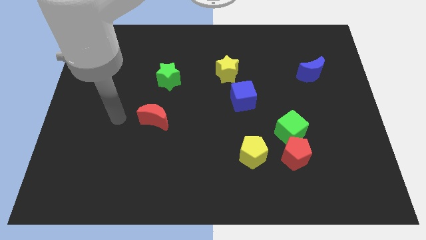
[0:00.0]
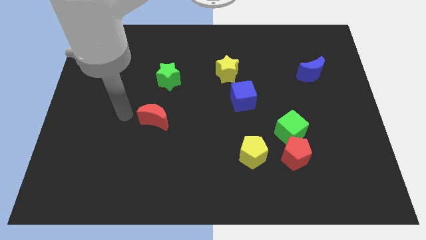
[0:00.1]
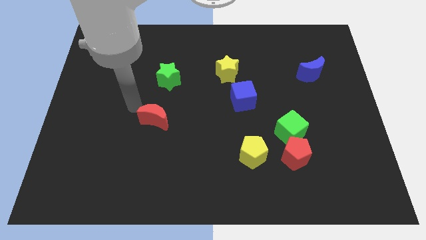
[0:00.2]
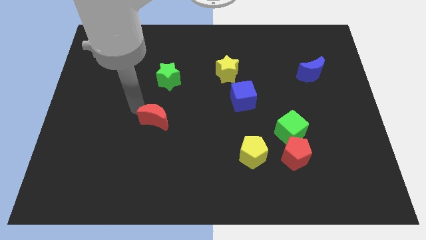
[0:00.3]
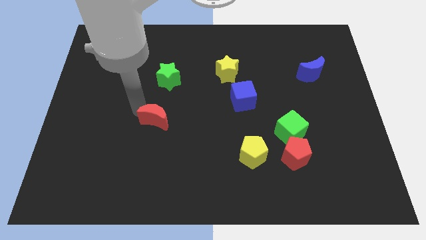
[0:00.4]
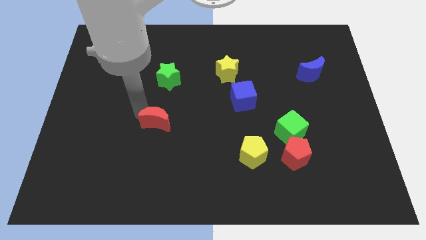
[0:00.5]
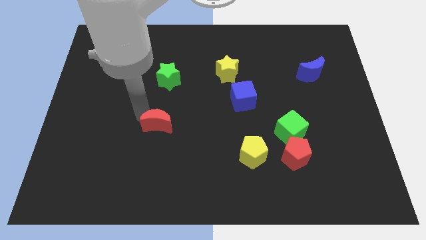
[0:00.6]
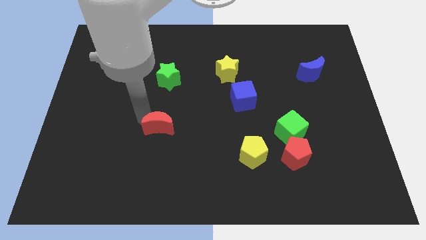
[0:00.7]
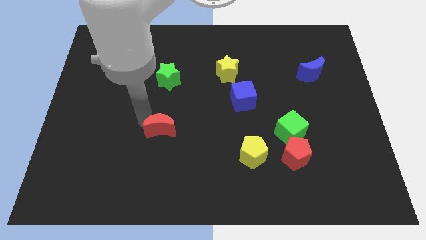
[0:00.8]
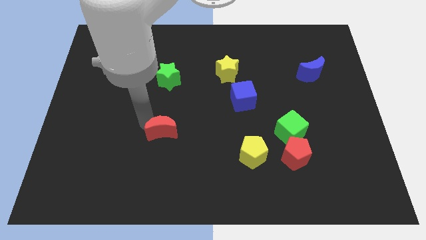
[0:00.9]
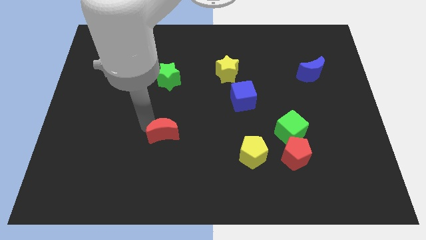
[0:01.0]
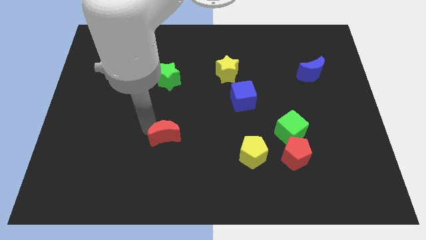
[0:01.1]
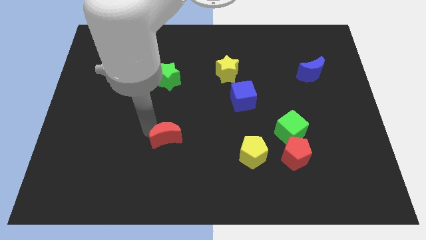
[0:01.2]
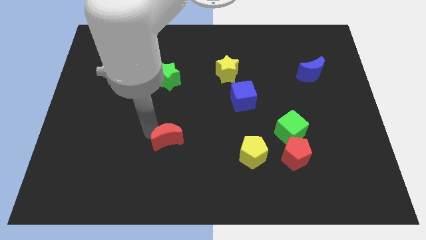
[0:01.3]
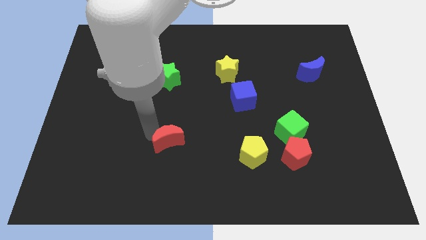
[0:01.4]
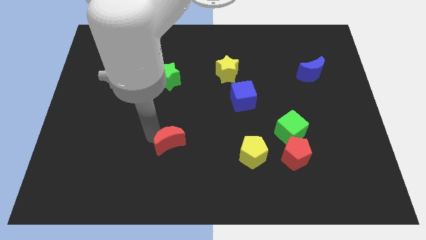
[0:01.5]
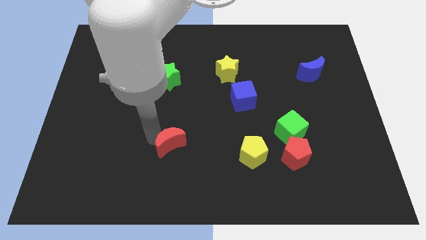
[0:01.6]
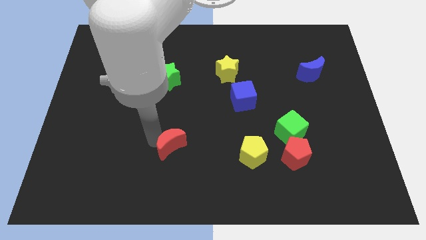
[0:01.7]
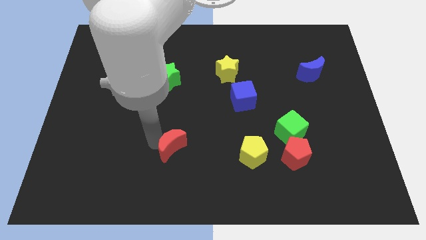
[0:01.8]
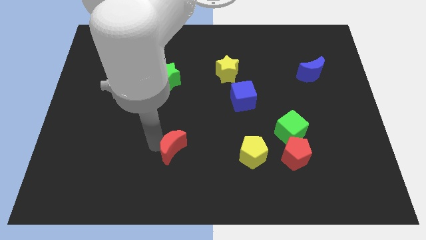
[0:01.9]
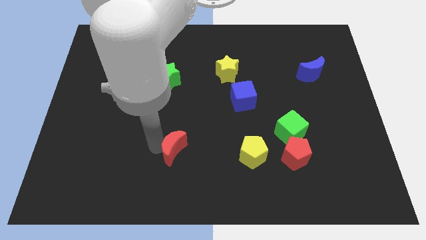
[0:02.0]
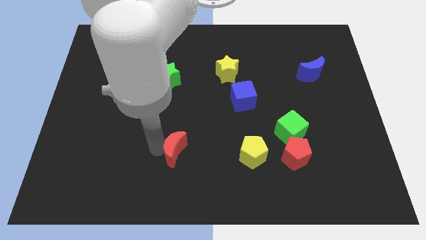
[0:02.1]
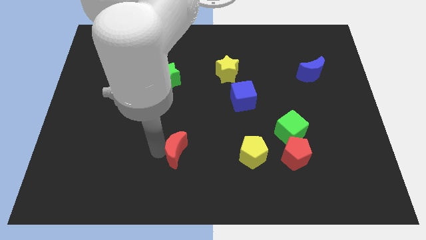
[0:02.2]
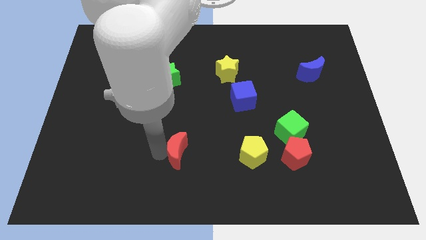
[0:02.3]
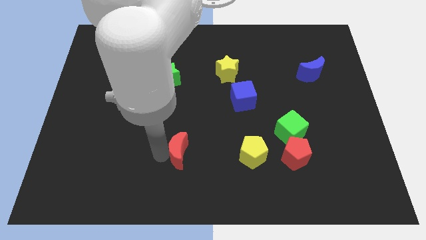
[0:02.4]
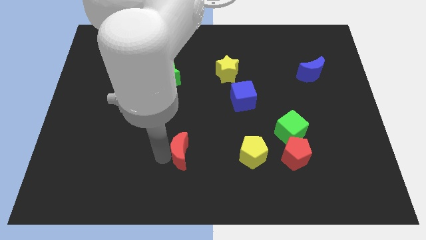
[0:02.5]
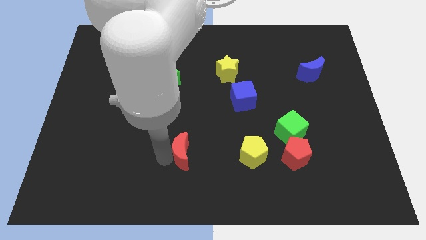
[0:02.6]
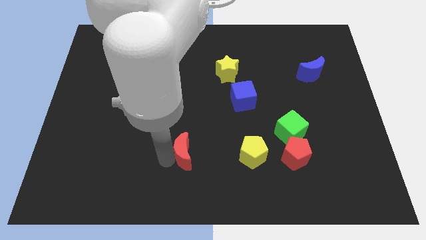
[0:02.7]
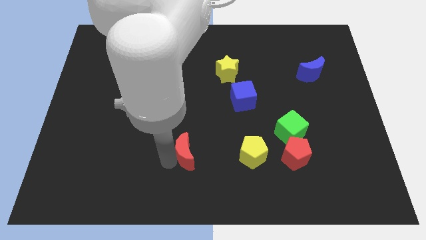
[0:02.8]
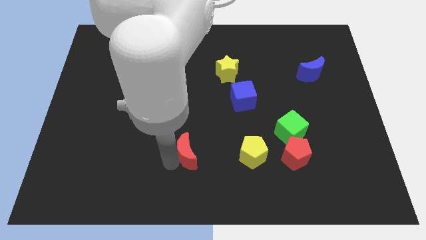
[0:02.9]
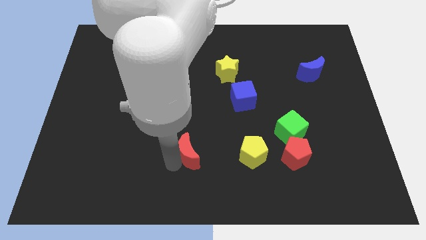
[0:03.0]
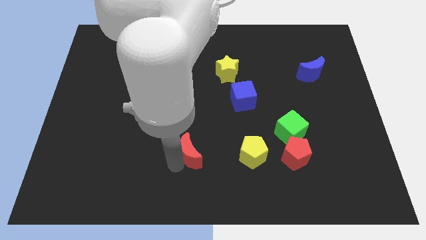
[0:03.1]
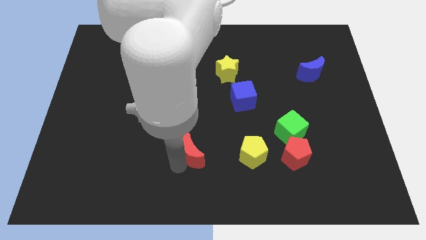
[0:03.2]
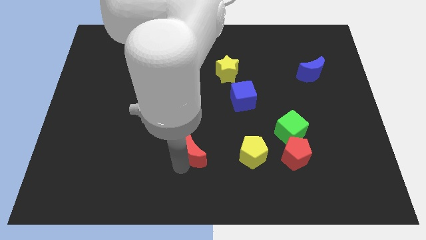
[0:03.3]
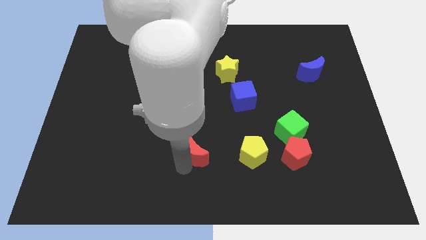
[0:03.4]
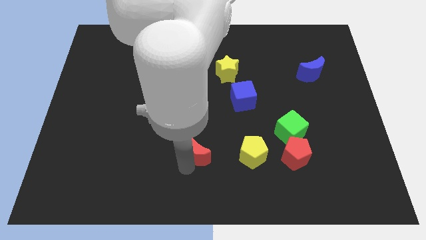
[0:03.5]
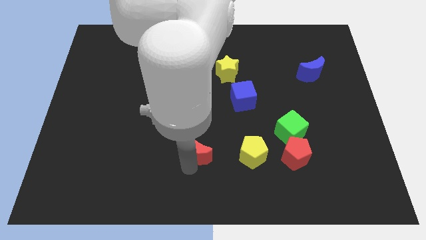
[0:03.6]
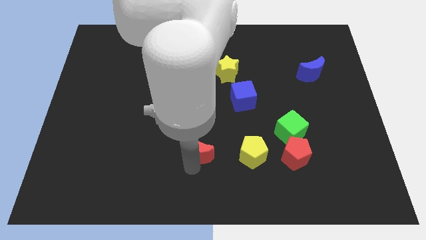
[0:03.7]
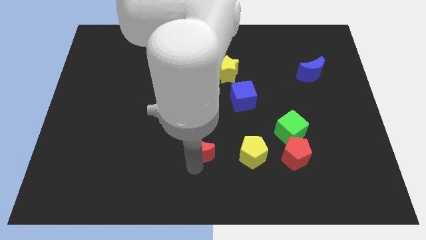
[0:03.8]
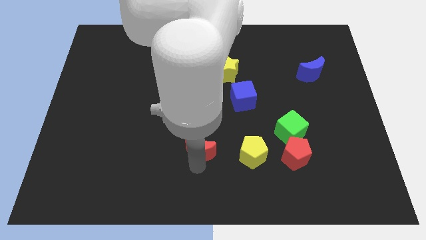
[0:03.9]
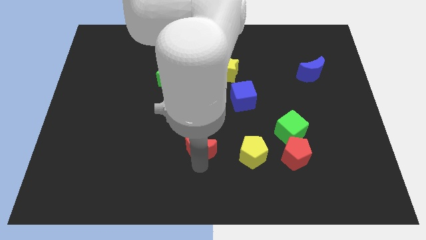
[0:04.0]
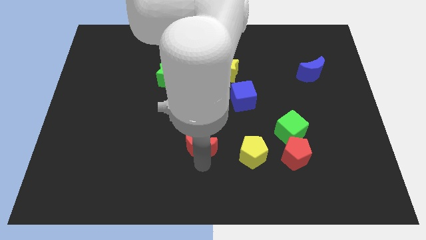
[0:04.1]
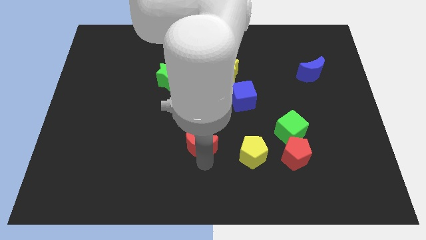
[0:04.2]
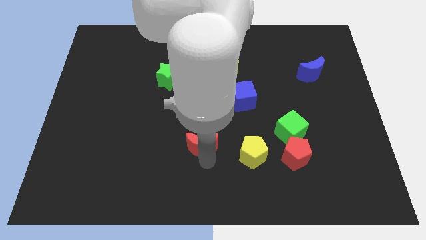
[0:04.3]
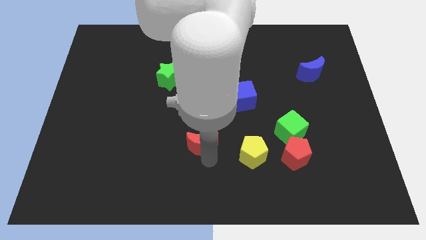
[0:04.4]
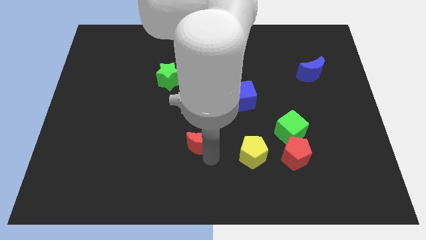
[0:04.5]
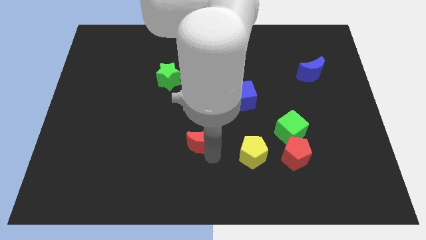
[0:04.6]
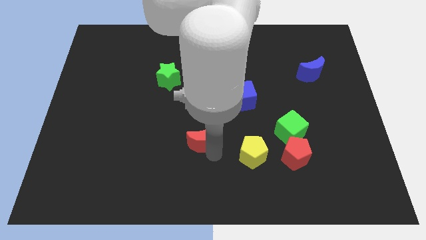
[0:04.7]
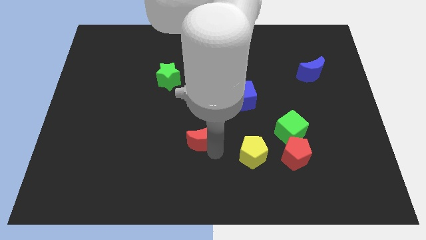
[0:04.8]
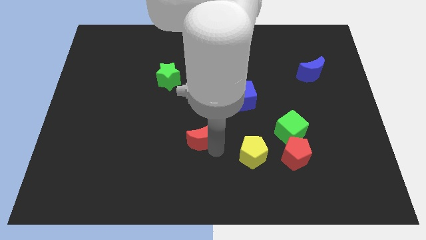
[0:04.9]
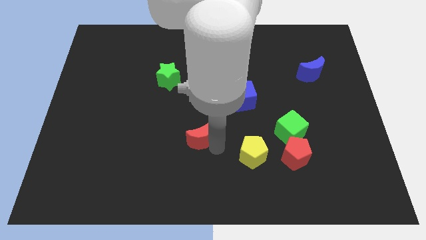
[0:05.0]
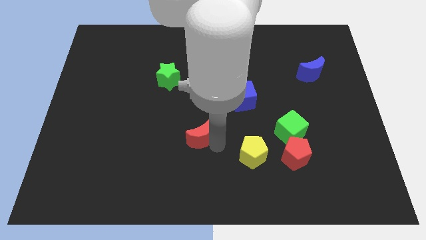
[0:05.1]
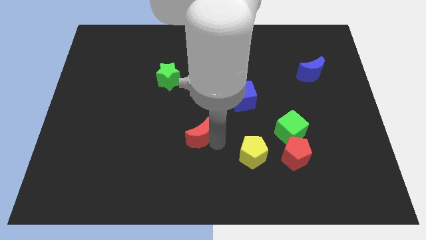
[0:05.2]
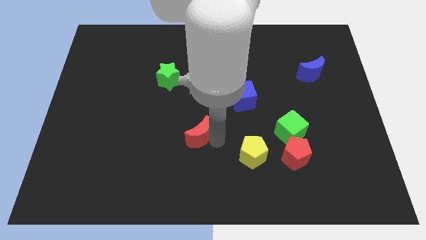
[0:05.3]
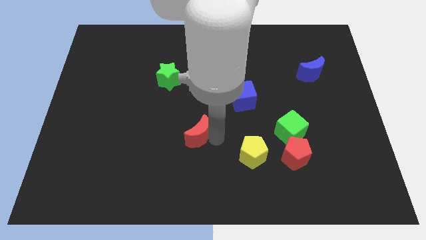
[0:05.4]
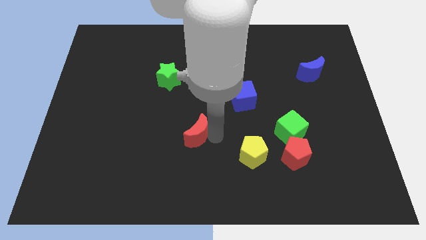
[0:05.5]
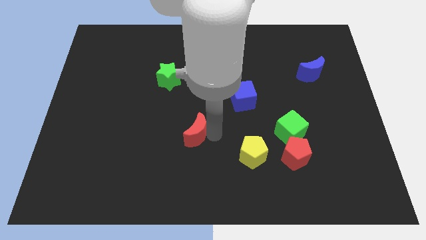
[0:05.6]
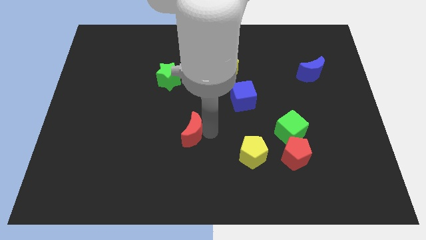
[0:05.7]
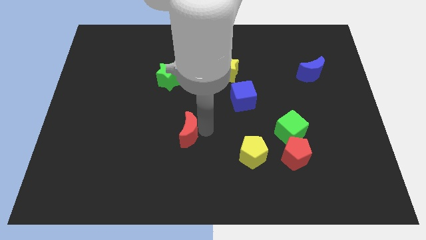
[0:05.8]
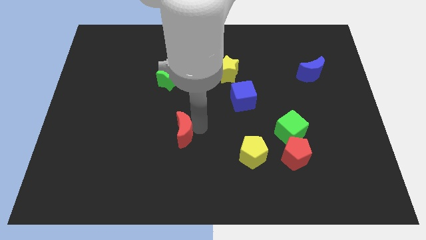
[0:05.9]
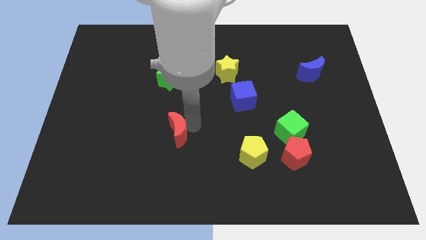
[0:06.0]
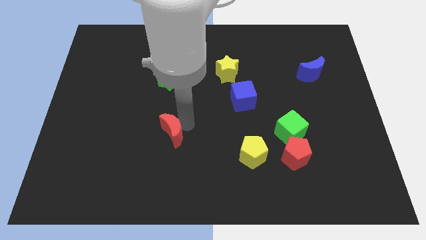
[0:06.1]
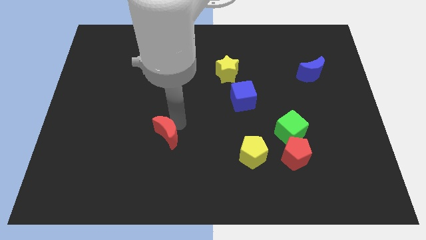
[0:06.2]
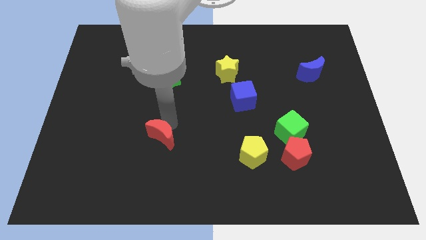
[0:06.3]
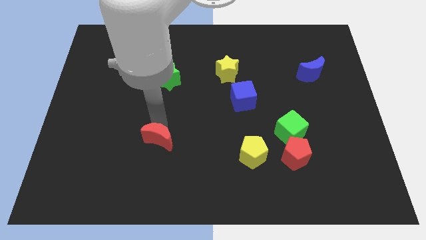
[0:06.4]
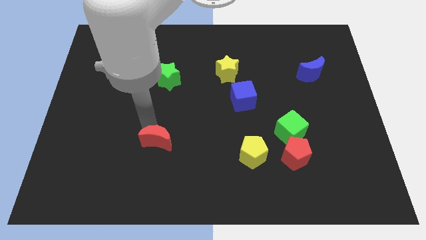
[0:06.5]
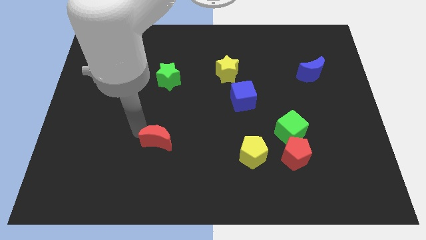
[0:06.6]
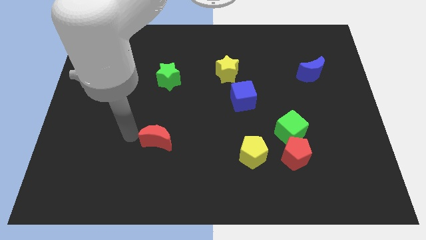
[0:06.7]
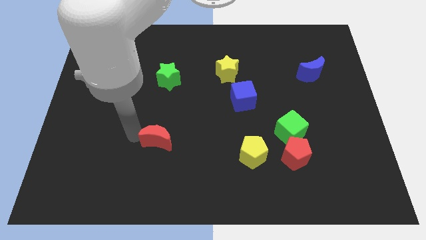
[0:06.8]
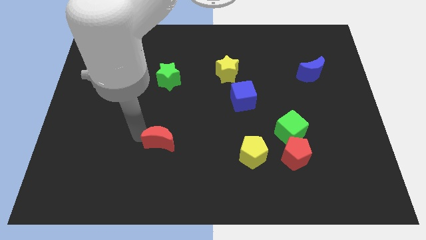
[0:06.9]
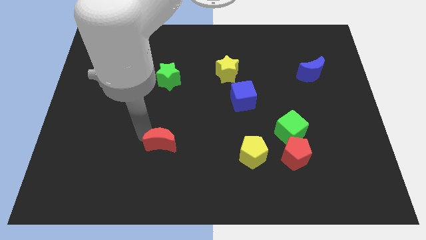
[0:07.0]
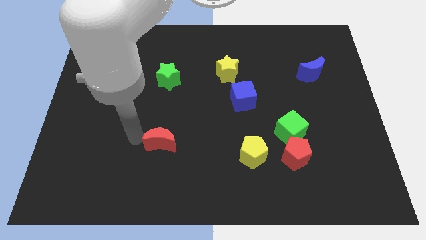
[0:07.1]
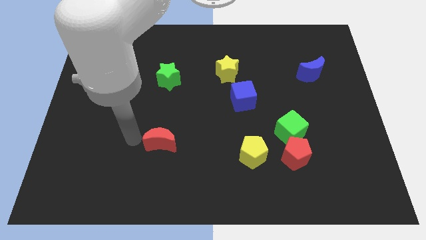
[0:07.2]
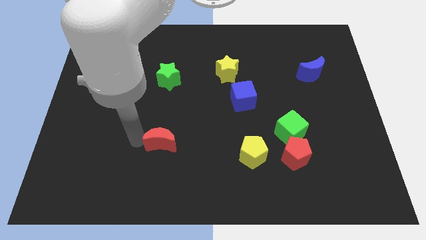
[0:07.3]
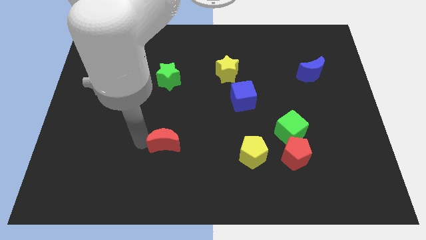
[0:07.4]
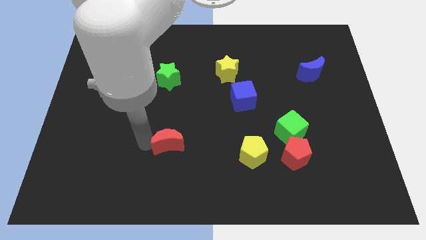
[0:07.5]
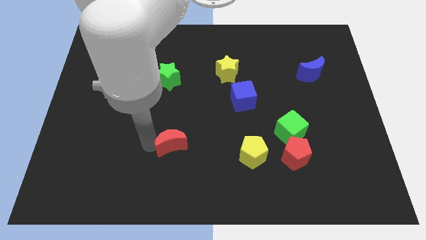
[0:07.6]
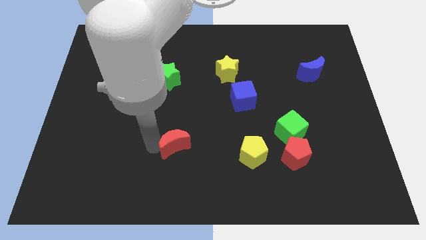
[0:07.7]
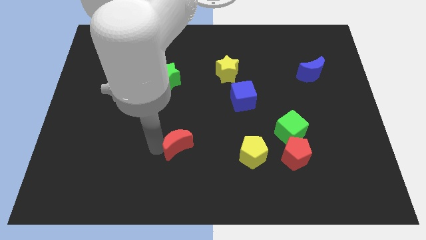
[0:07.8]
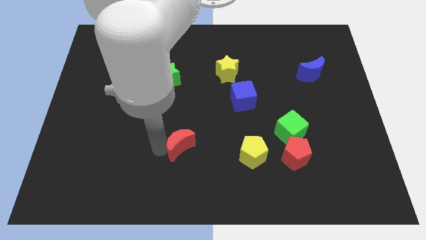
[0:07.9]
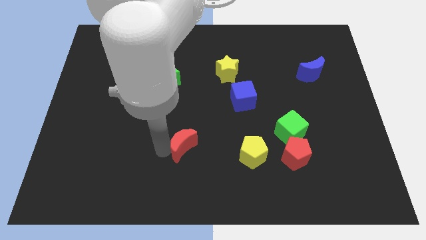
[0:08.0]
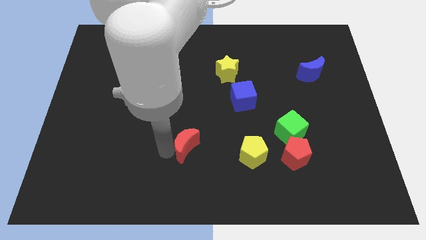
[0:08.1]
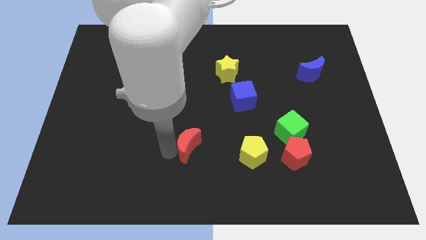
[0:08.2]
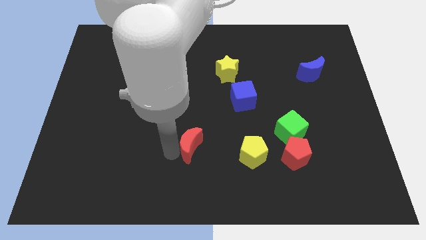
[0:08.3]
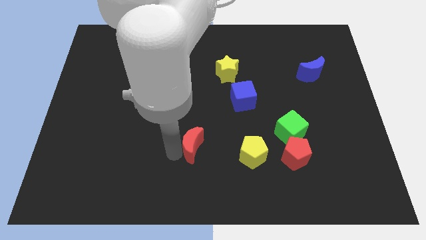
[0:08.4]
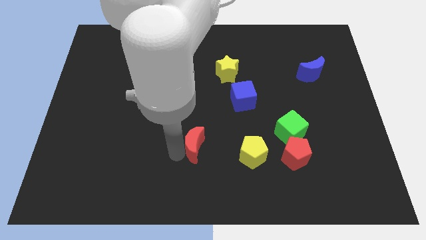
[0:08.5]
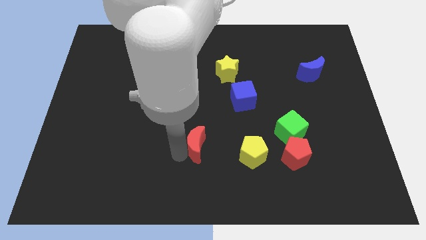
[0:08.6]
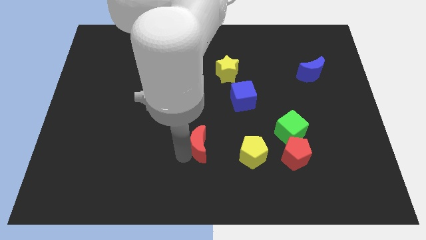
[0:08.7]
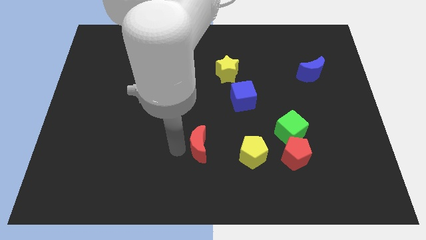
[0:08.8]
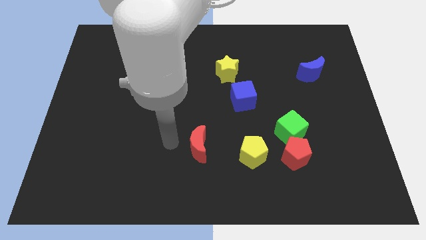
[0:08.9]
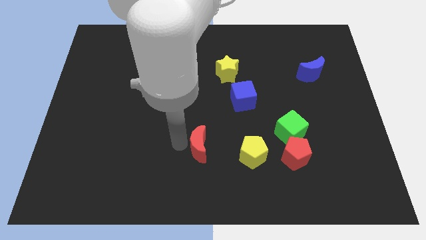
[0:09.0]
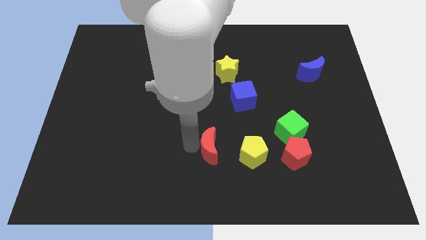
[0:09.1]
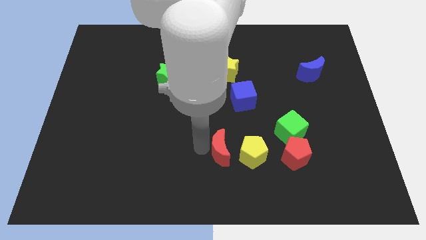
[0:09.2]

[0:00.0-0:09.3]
push the red moon just left of the red pentagon
